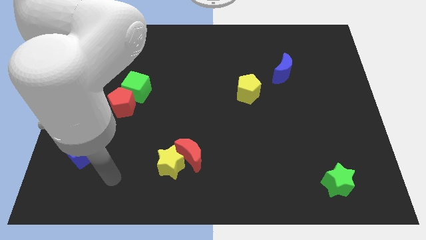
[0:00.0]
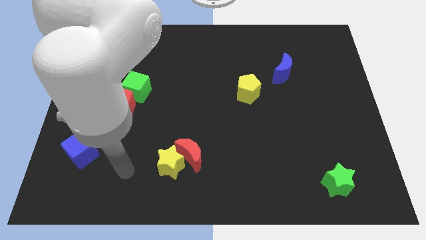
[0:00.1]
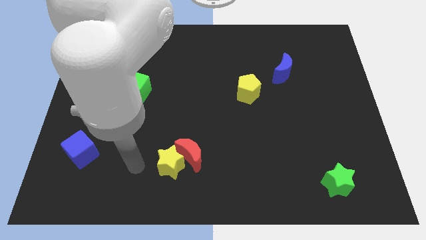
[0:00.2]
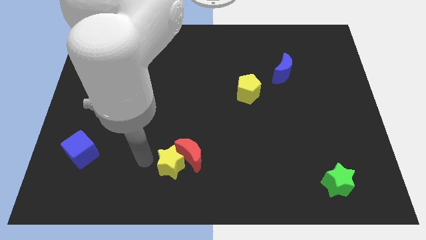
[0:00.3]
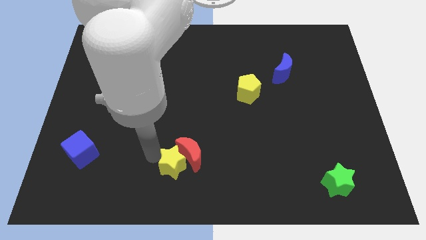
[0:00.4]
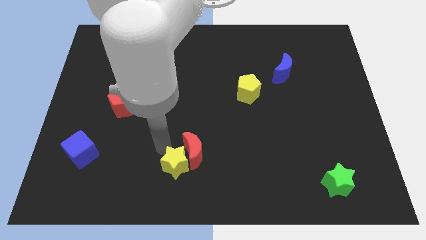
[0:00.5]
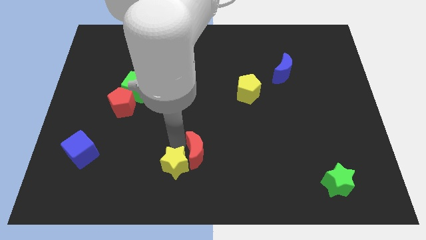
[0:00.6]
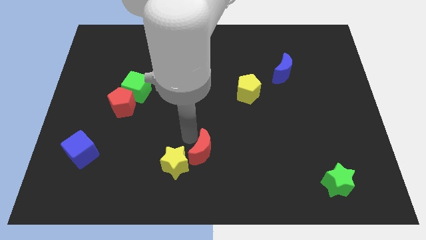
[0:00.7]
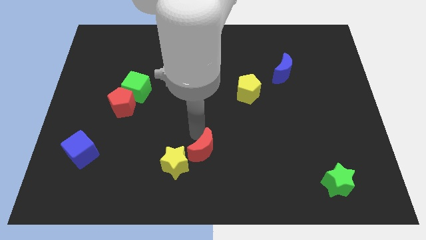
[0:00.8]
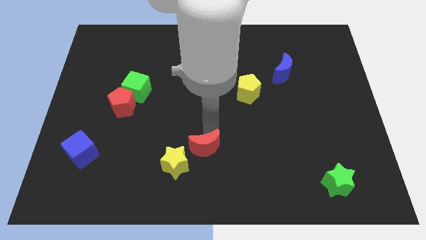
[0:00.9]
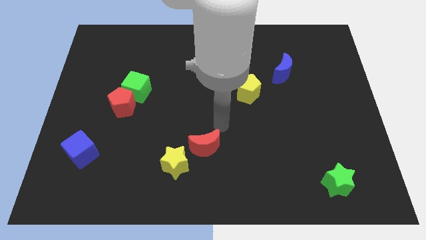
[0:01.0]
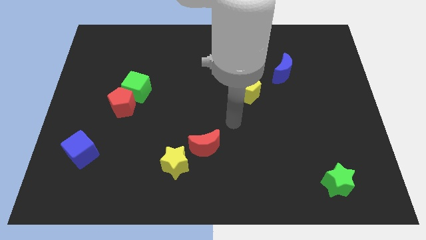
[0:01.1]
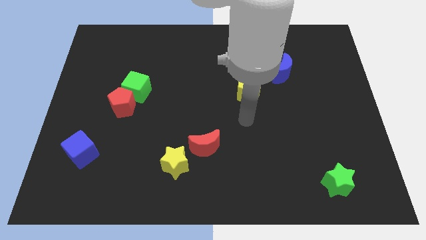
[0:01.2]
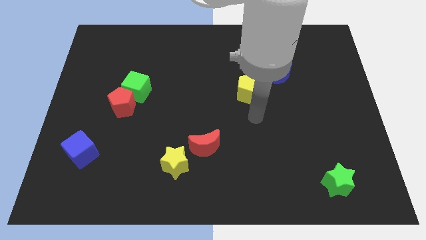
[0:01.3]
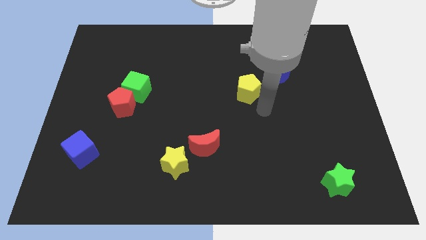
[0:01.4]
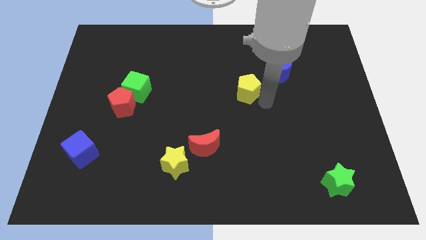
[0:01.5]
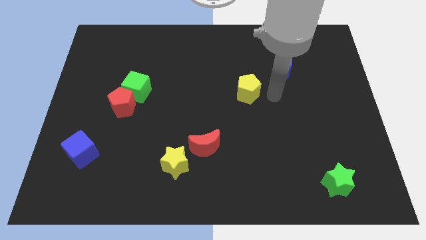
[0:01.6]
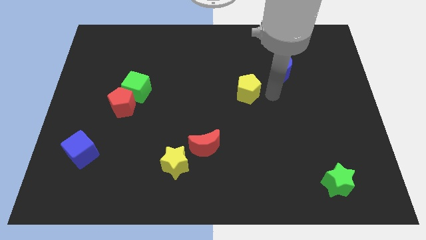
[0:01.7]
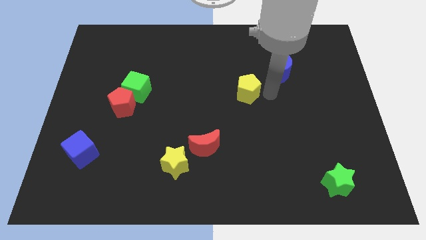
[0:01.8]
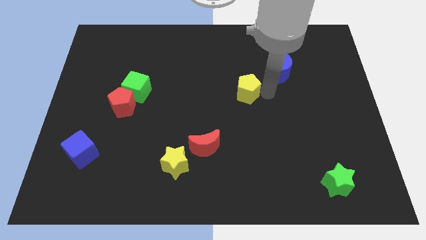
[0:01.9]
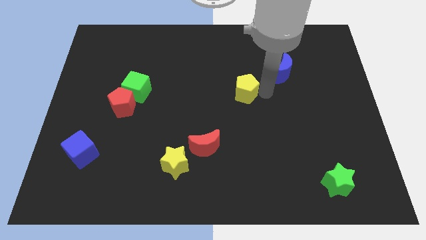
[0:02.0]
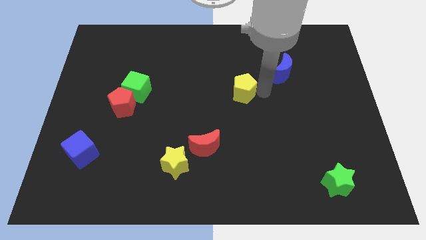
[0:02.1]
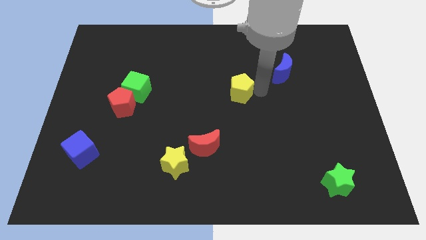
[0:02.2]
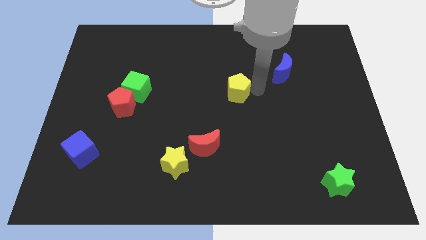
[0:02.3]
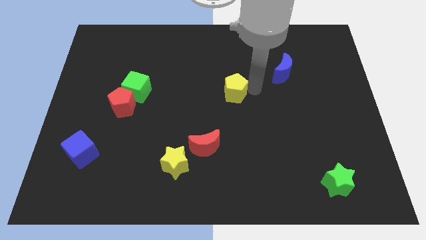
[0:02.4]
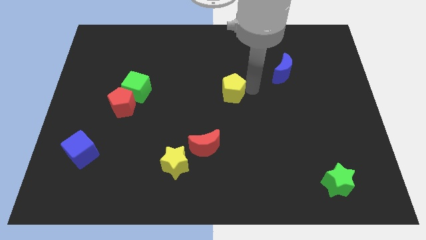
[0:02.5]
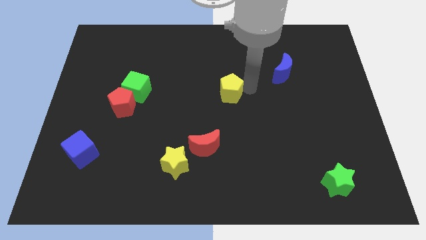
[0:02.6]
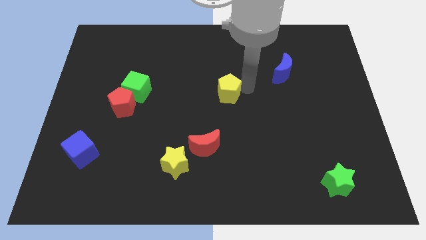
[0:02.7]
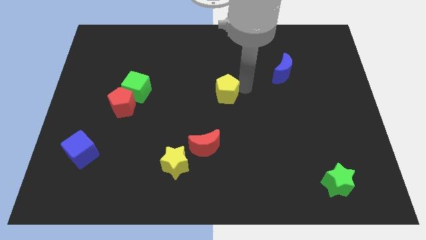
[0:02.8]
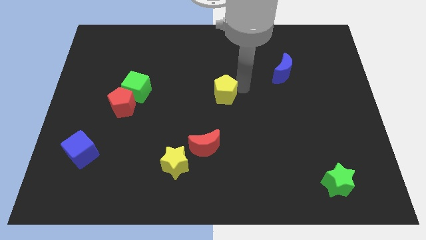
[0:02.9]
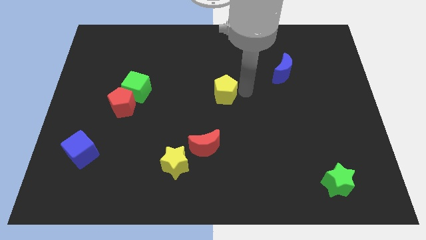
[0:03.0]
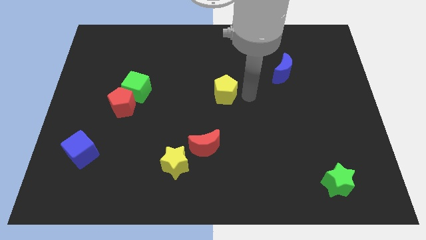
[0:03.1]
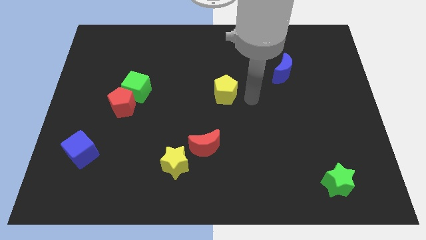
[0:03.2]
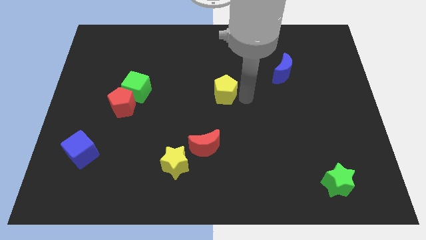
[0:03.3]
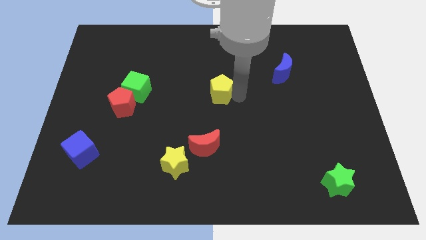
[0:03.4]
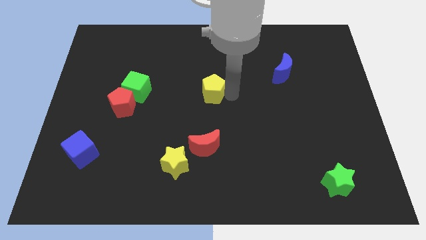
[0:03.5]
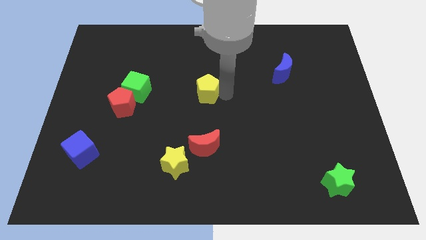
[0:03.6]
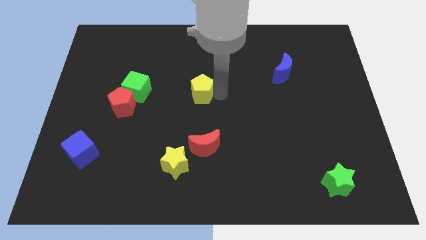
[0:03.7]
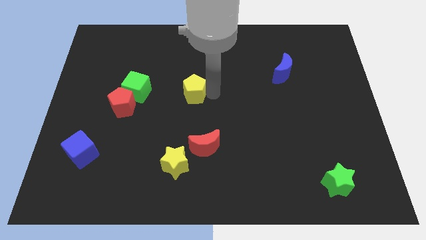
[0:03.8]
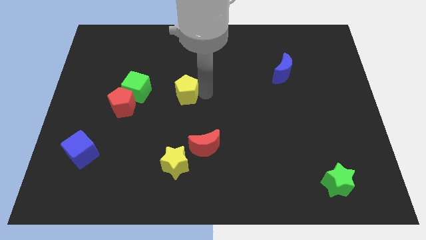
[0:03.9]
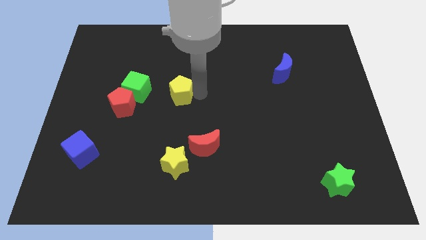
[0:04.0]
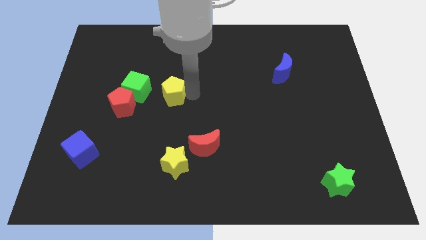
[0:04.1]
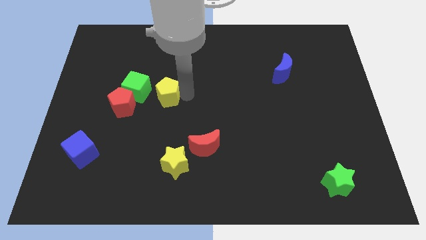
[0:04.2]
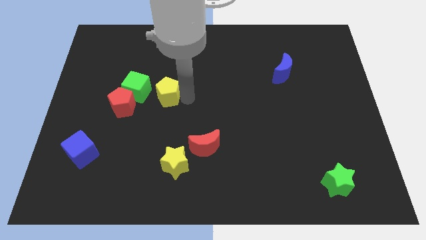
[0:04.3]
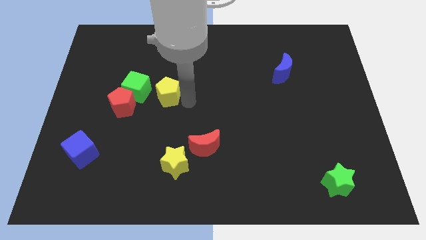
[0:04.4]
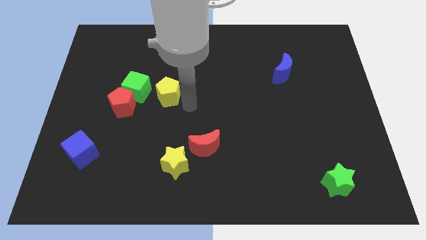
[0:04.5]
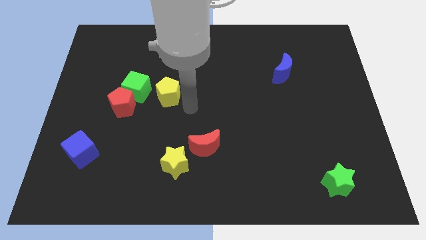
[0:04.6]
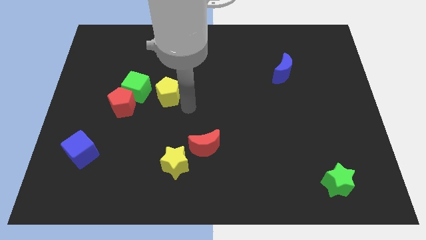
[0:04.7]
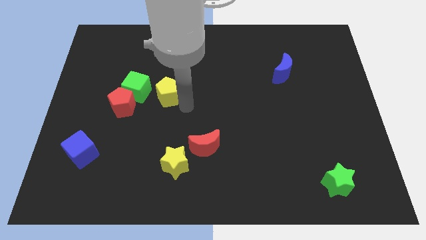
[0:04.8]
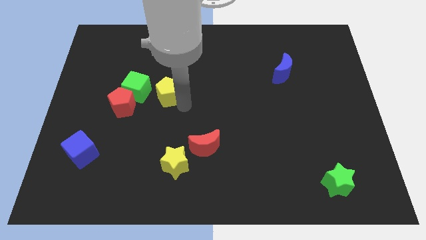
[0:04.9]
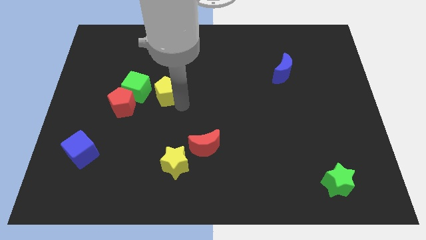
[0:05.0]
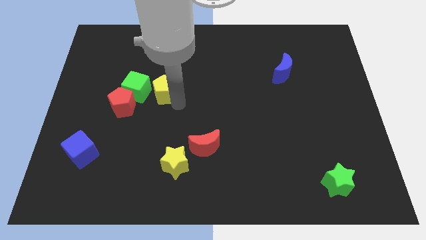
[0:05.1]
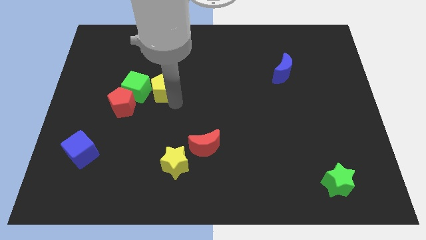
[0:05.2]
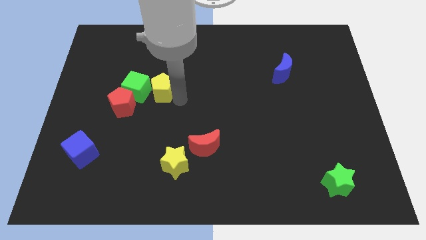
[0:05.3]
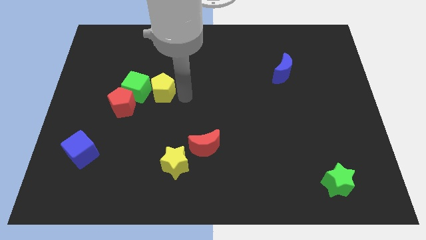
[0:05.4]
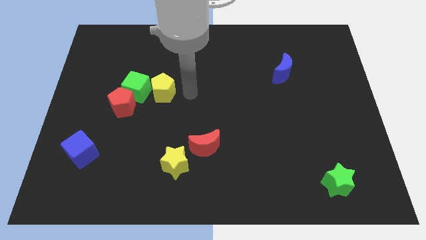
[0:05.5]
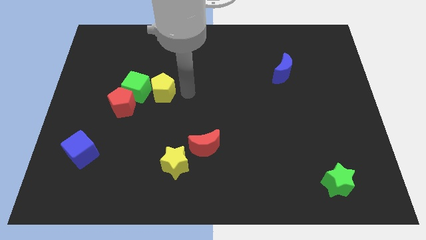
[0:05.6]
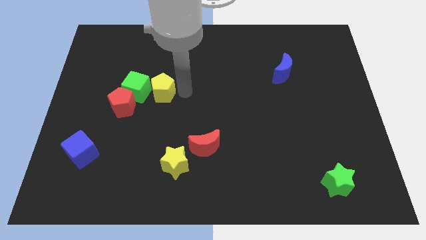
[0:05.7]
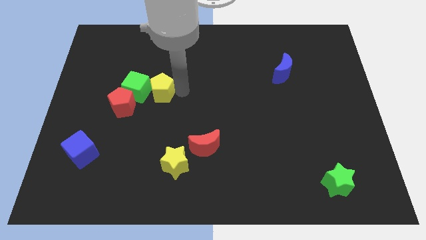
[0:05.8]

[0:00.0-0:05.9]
put the yellow pentagon to the green cube
